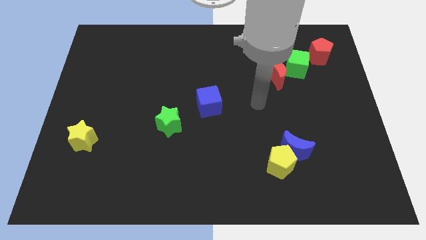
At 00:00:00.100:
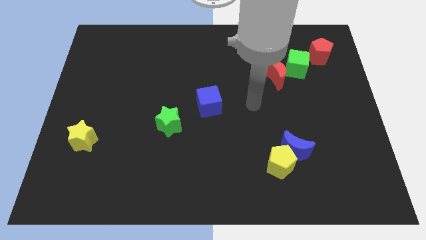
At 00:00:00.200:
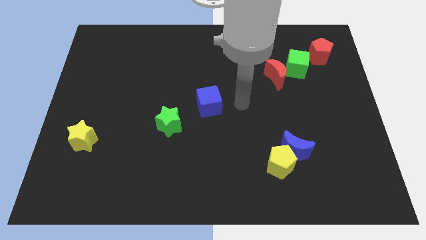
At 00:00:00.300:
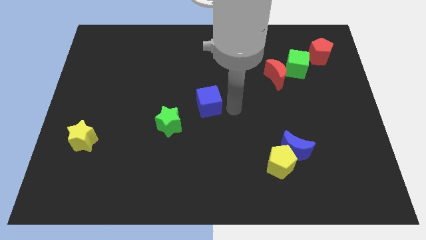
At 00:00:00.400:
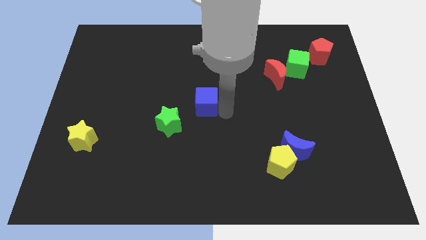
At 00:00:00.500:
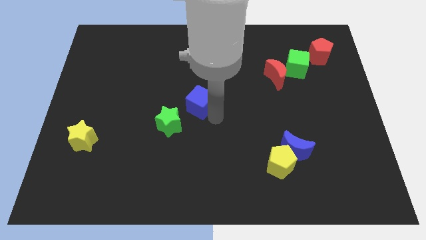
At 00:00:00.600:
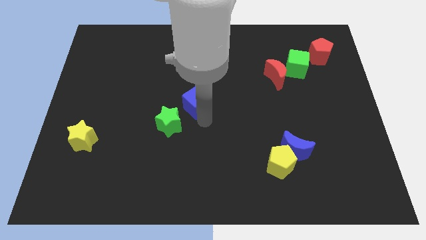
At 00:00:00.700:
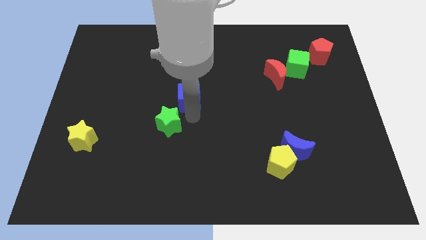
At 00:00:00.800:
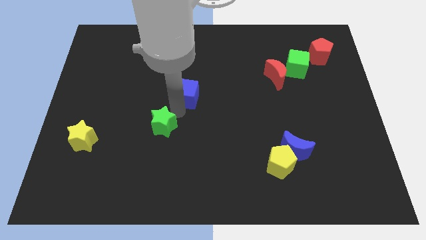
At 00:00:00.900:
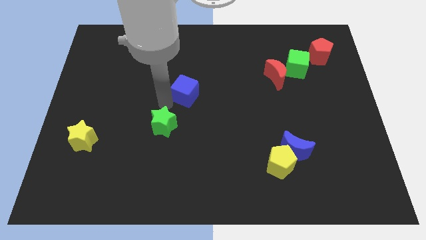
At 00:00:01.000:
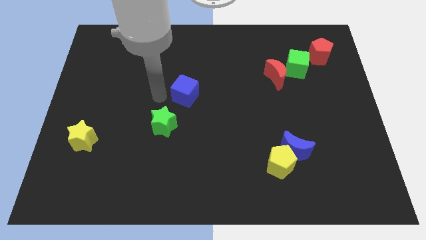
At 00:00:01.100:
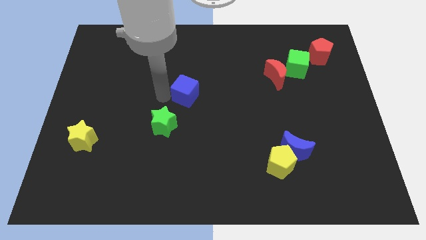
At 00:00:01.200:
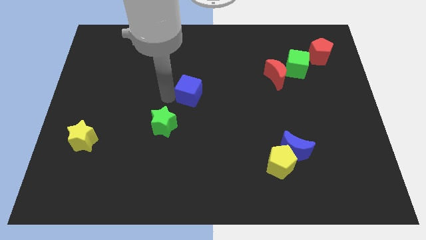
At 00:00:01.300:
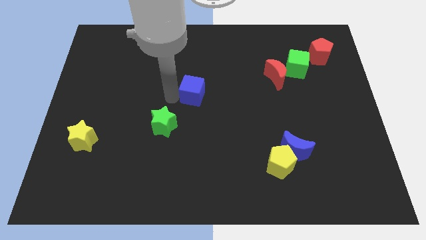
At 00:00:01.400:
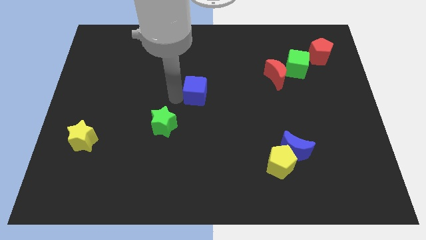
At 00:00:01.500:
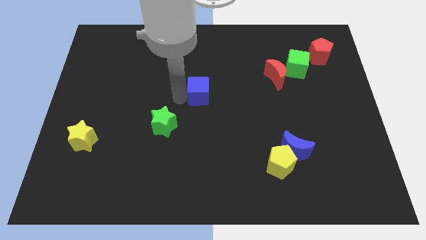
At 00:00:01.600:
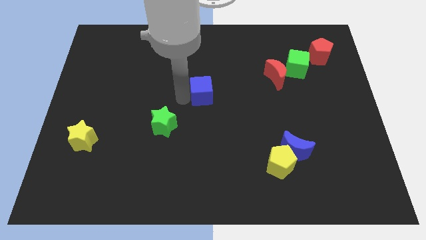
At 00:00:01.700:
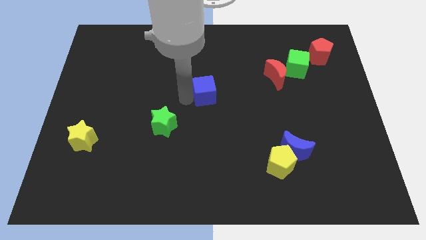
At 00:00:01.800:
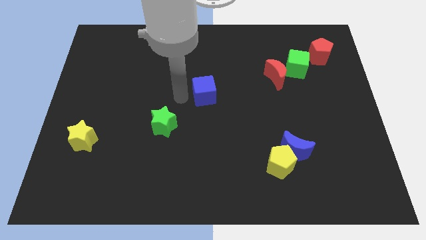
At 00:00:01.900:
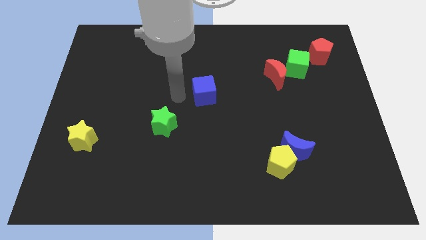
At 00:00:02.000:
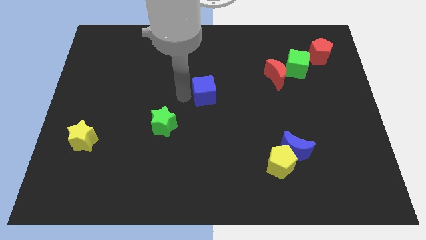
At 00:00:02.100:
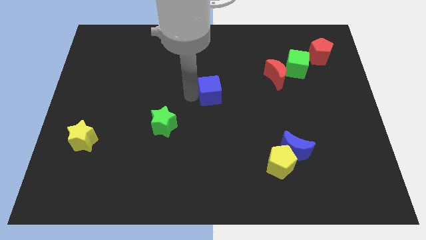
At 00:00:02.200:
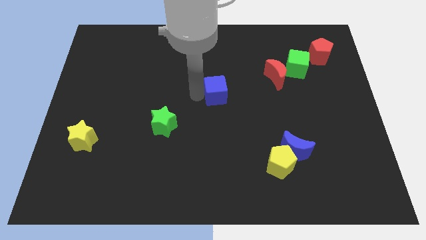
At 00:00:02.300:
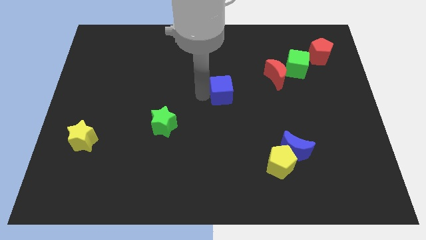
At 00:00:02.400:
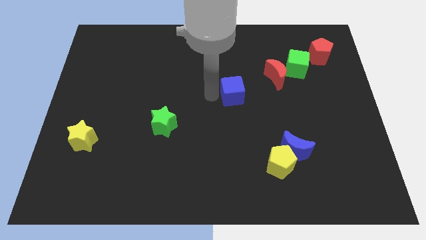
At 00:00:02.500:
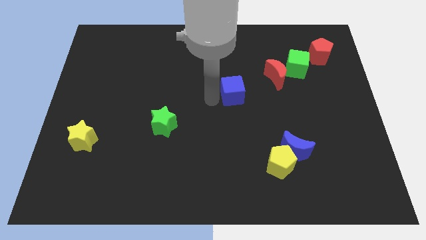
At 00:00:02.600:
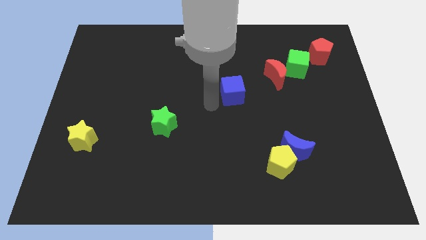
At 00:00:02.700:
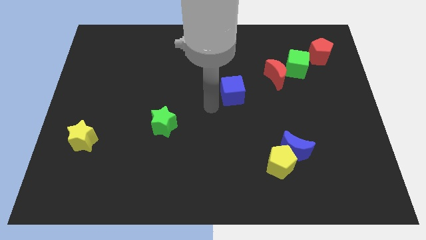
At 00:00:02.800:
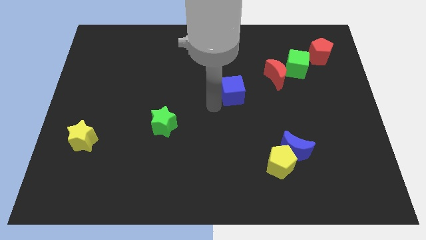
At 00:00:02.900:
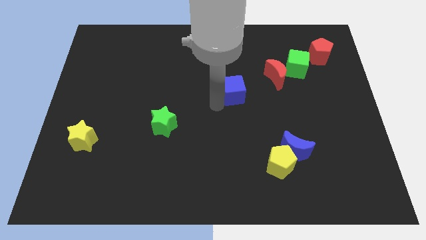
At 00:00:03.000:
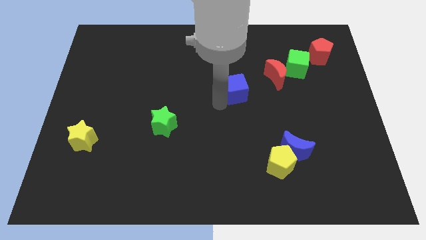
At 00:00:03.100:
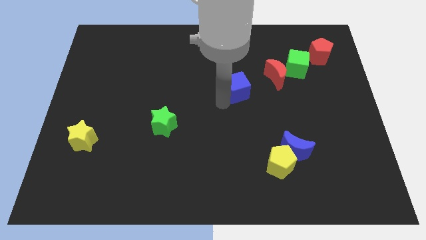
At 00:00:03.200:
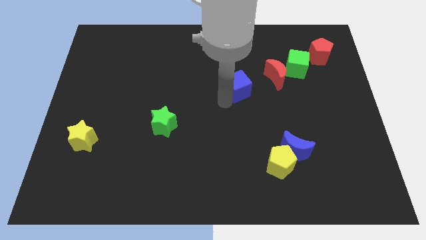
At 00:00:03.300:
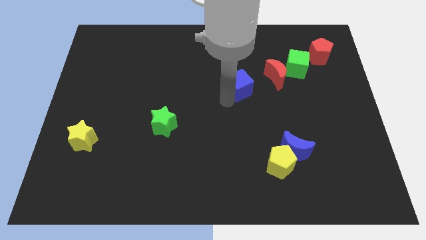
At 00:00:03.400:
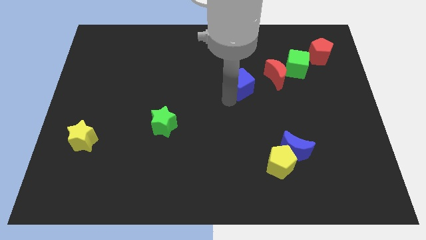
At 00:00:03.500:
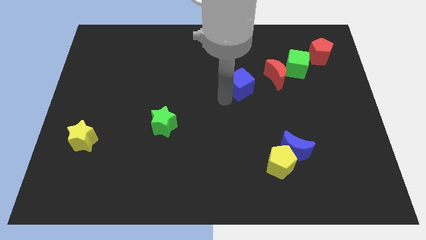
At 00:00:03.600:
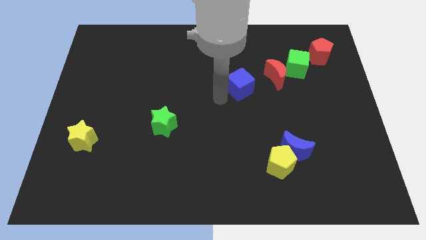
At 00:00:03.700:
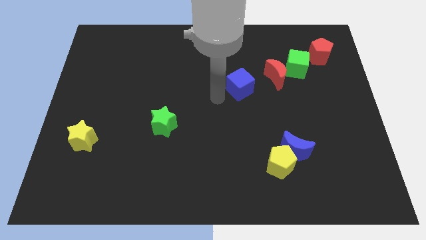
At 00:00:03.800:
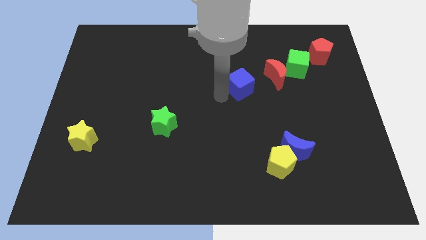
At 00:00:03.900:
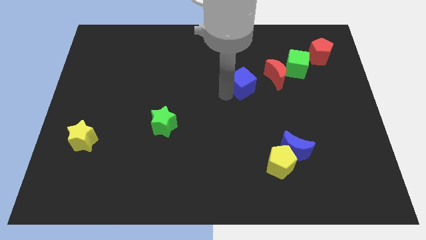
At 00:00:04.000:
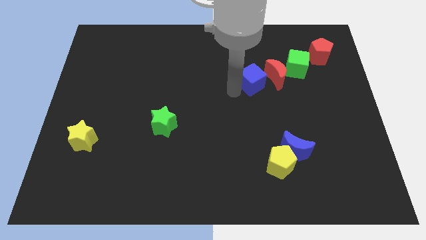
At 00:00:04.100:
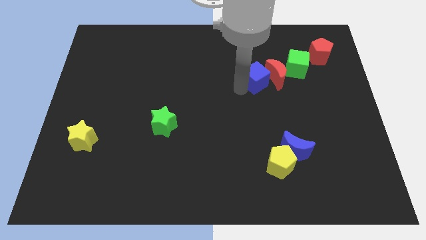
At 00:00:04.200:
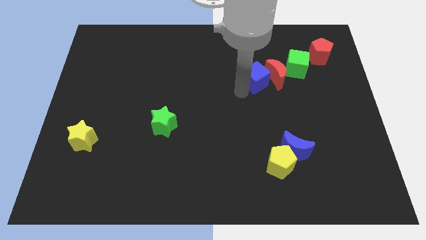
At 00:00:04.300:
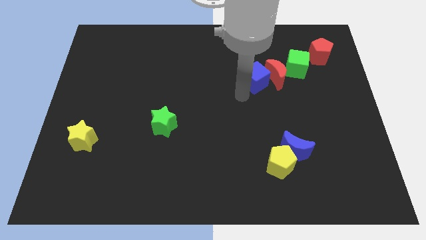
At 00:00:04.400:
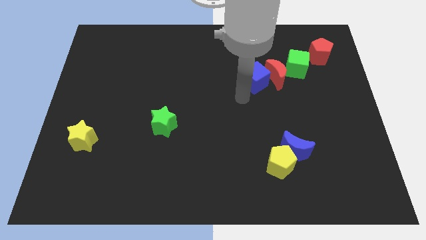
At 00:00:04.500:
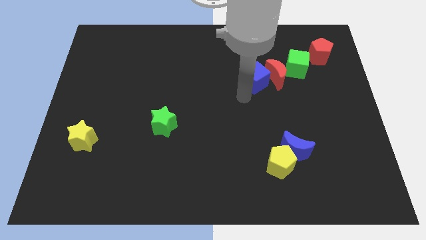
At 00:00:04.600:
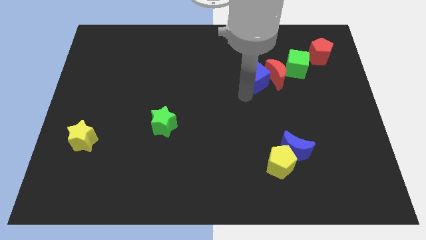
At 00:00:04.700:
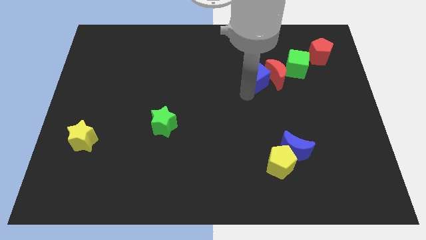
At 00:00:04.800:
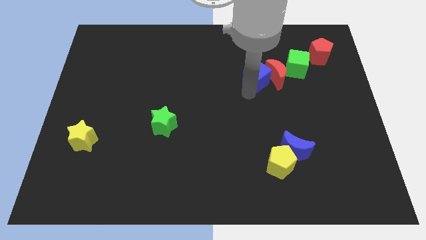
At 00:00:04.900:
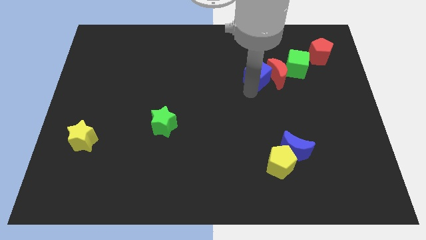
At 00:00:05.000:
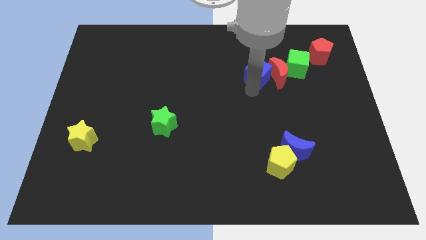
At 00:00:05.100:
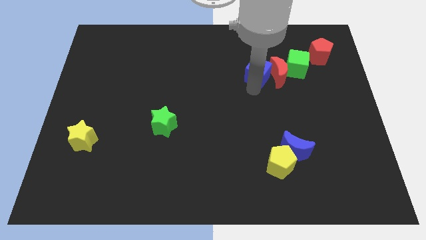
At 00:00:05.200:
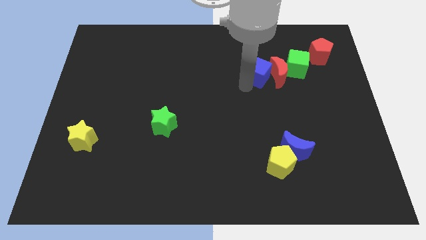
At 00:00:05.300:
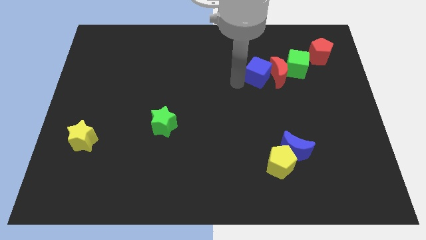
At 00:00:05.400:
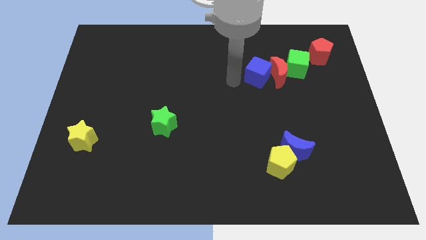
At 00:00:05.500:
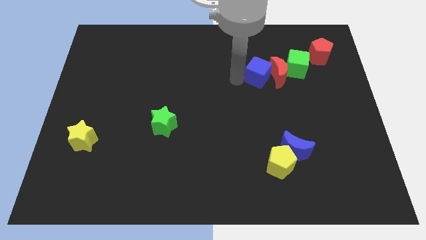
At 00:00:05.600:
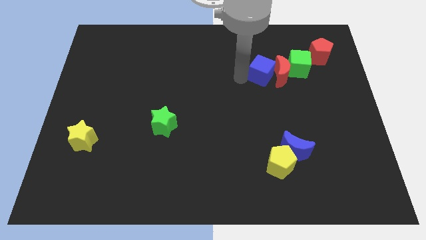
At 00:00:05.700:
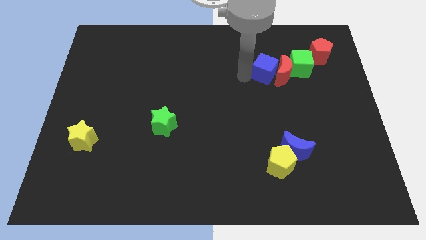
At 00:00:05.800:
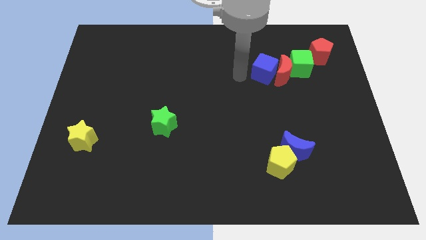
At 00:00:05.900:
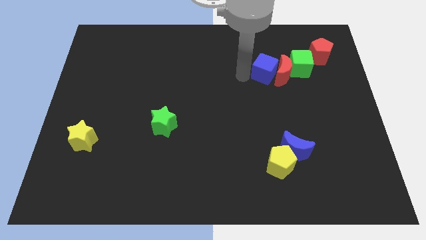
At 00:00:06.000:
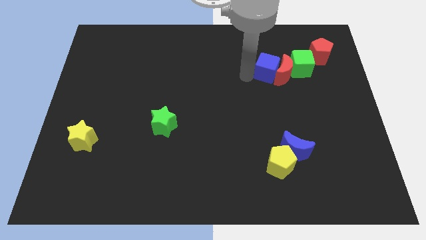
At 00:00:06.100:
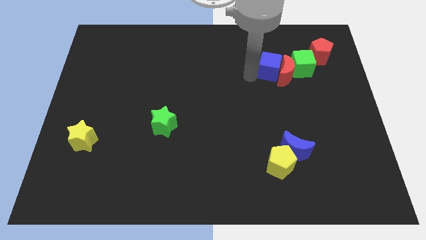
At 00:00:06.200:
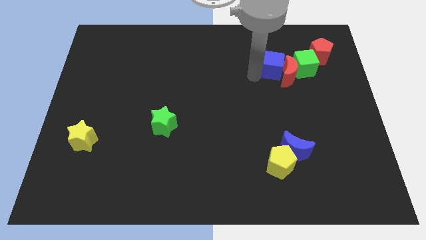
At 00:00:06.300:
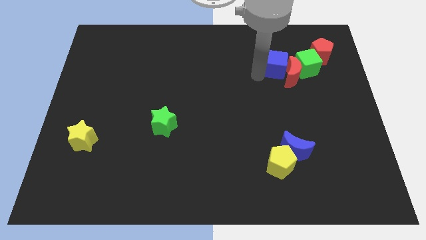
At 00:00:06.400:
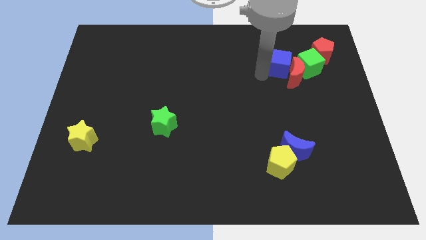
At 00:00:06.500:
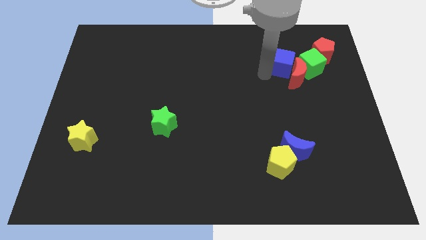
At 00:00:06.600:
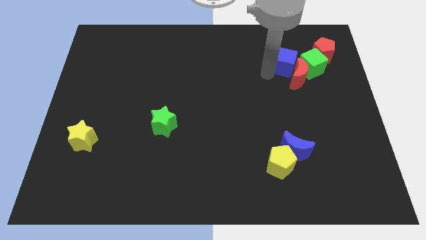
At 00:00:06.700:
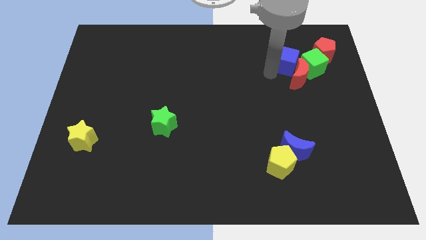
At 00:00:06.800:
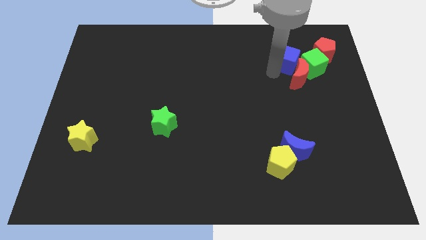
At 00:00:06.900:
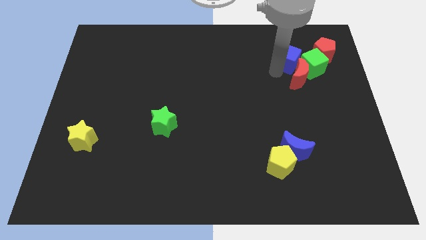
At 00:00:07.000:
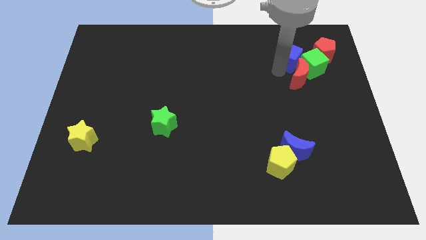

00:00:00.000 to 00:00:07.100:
move the blue cube close to the green cube
